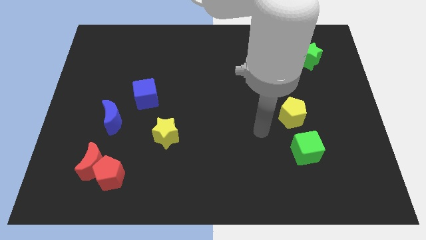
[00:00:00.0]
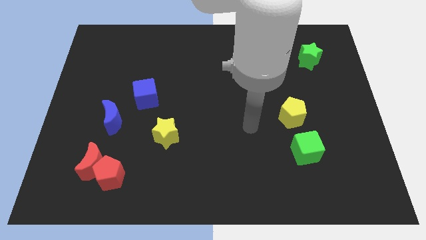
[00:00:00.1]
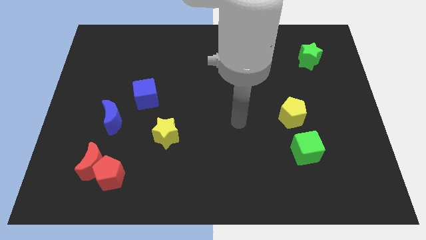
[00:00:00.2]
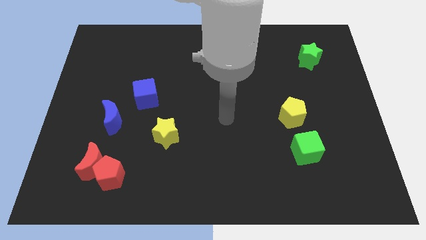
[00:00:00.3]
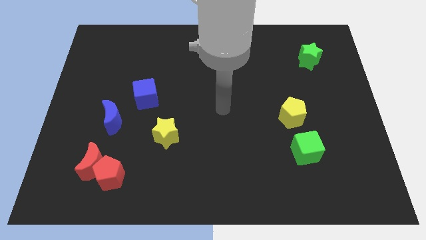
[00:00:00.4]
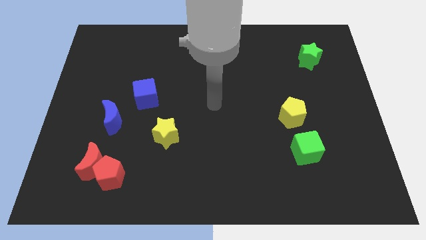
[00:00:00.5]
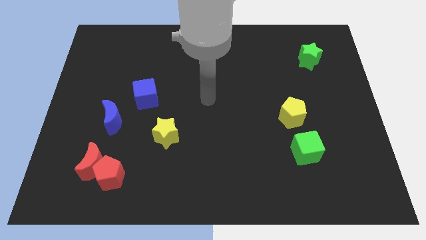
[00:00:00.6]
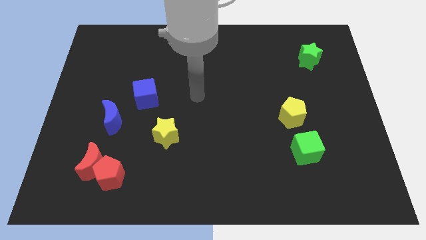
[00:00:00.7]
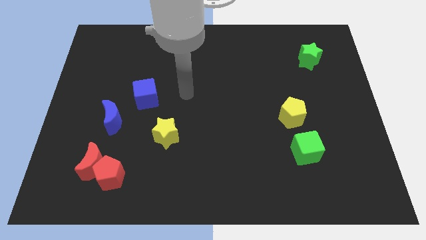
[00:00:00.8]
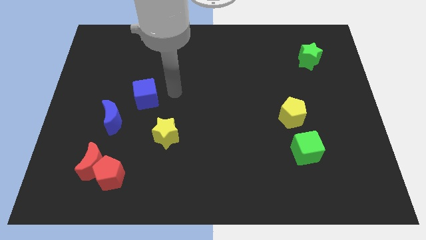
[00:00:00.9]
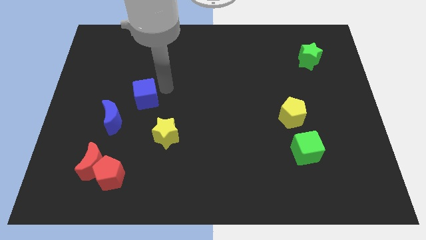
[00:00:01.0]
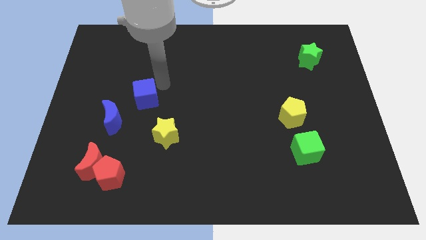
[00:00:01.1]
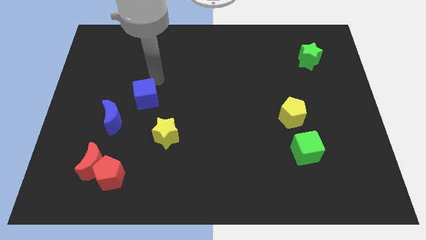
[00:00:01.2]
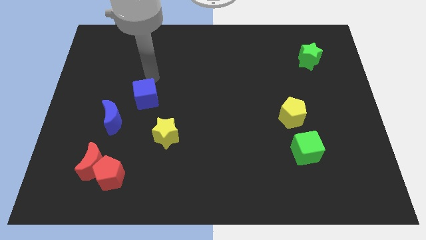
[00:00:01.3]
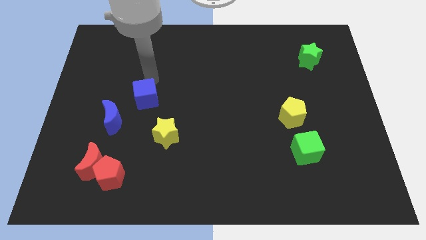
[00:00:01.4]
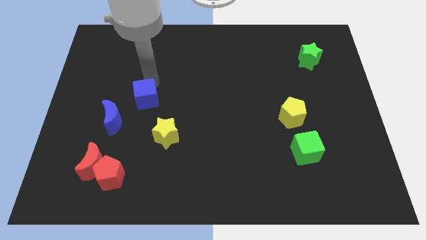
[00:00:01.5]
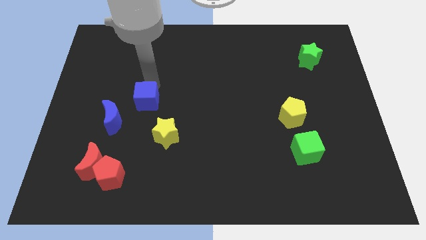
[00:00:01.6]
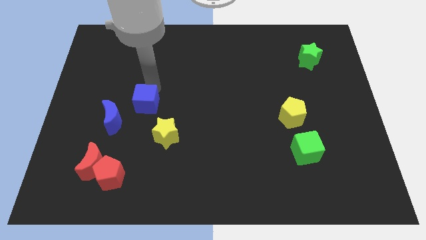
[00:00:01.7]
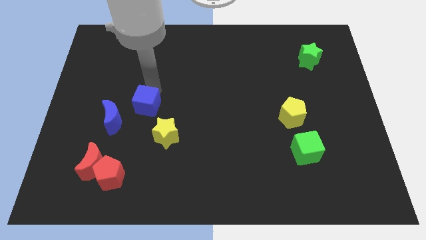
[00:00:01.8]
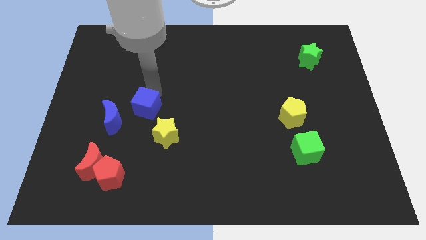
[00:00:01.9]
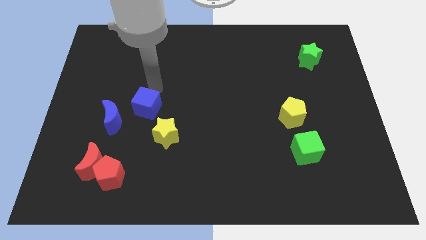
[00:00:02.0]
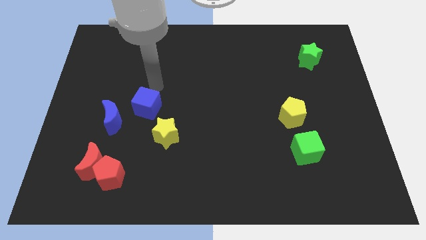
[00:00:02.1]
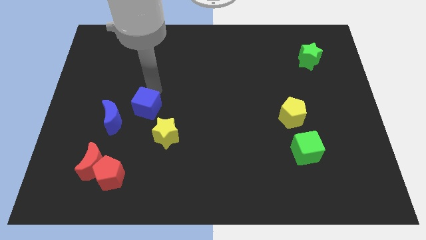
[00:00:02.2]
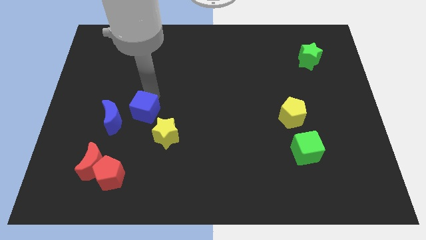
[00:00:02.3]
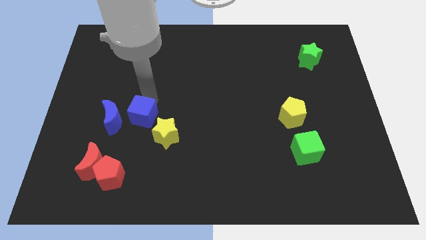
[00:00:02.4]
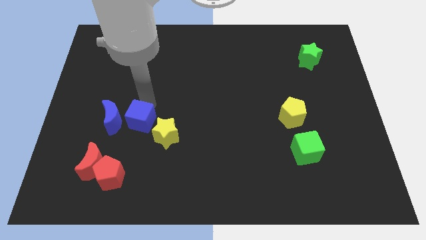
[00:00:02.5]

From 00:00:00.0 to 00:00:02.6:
move the blue cube down a bit

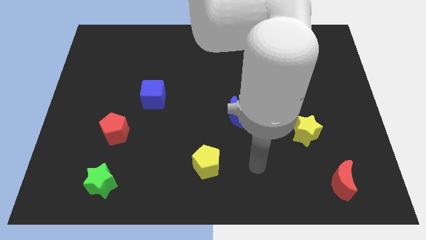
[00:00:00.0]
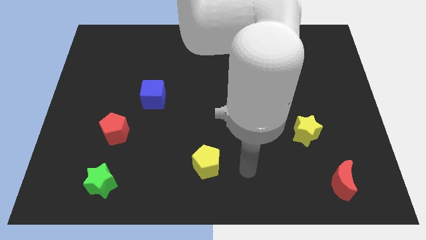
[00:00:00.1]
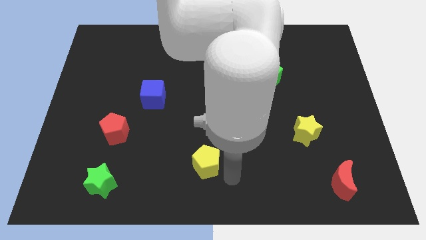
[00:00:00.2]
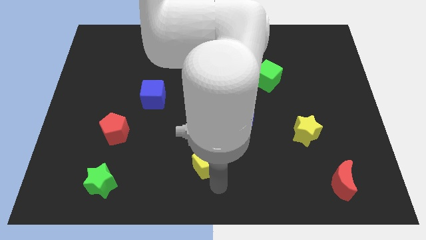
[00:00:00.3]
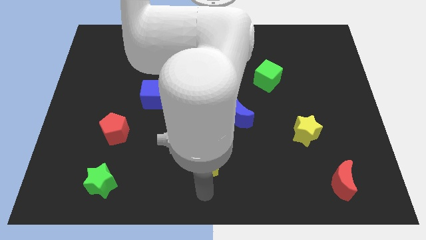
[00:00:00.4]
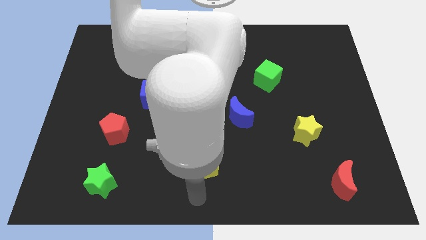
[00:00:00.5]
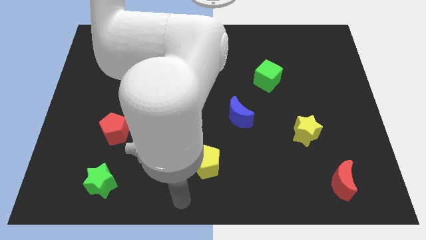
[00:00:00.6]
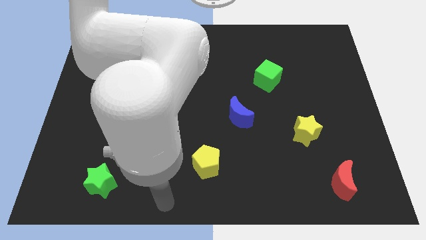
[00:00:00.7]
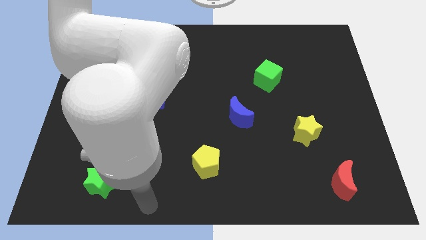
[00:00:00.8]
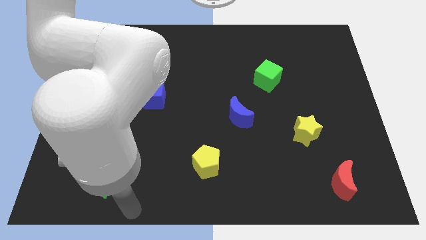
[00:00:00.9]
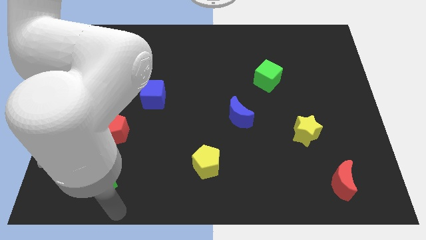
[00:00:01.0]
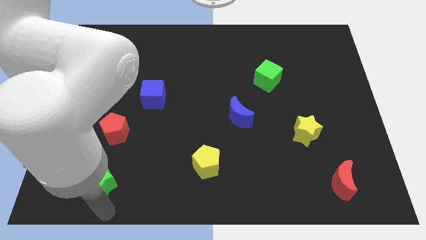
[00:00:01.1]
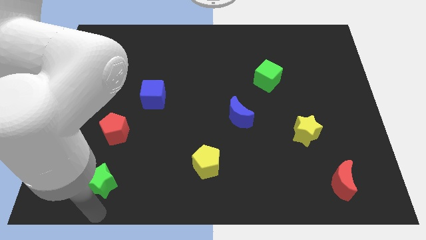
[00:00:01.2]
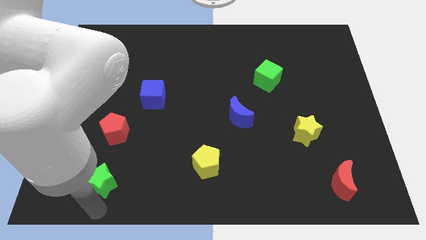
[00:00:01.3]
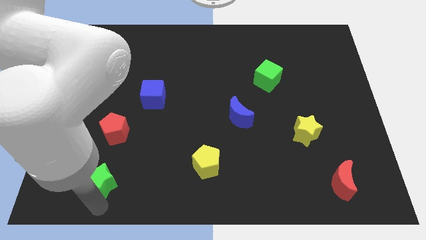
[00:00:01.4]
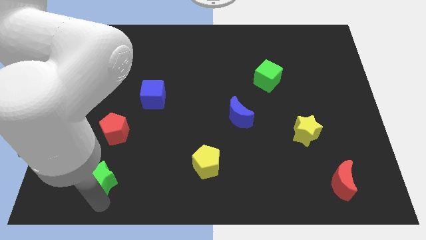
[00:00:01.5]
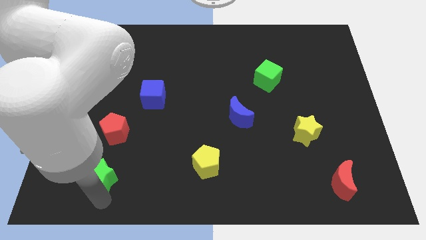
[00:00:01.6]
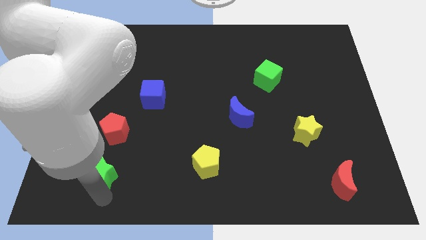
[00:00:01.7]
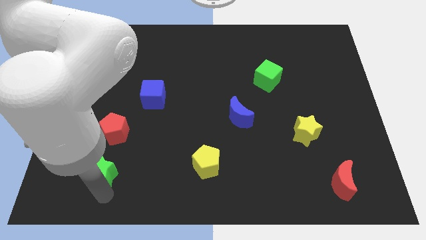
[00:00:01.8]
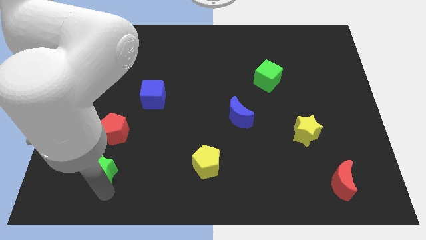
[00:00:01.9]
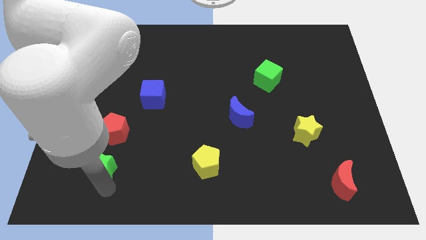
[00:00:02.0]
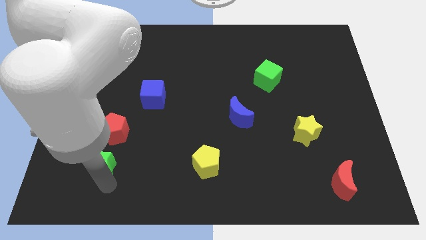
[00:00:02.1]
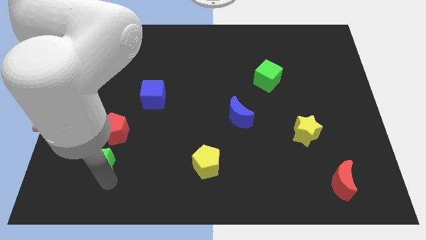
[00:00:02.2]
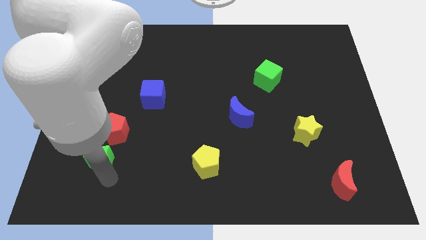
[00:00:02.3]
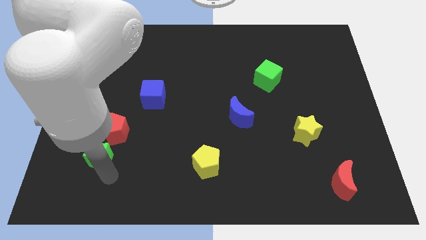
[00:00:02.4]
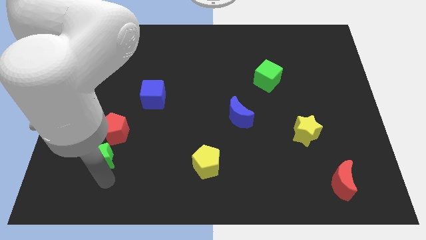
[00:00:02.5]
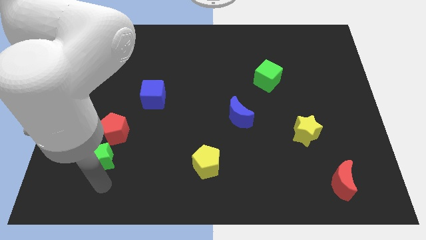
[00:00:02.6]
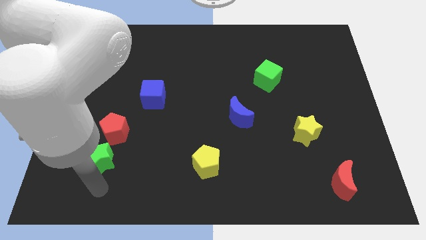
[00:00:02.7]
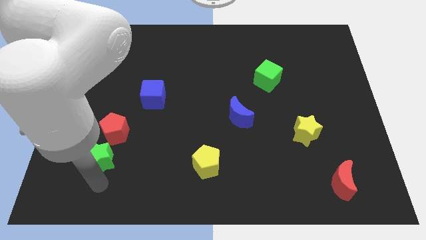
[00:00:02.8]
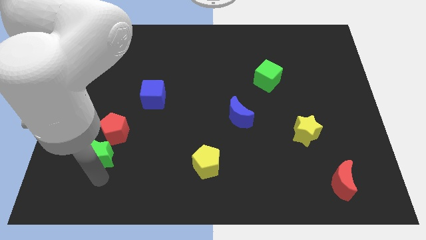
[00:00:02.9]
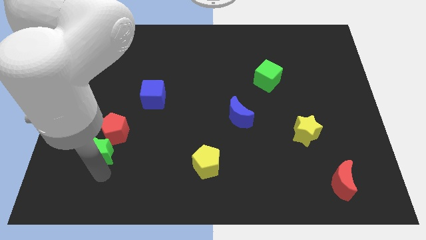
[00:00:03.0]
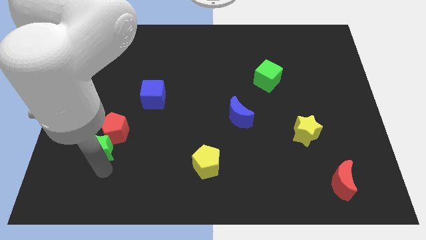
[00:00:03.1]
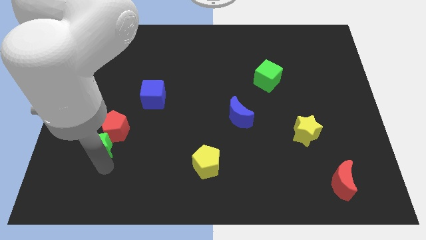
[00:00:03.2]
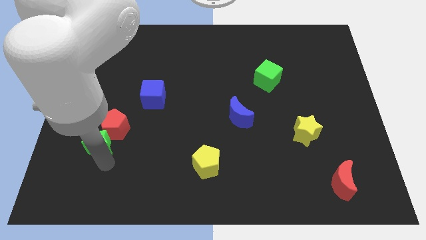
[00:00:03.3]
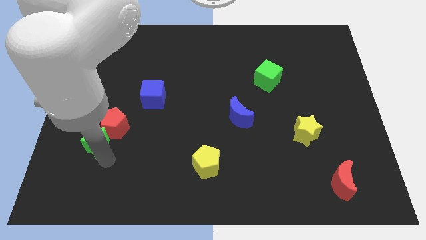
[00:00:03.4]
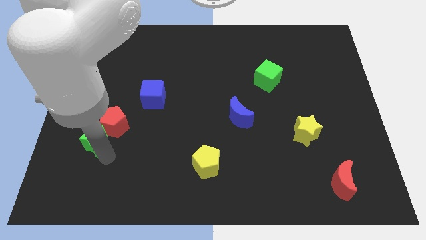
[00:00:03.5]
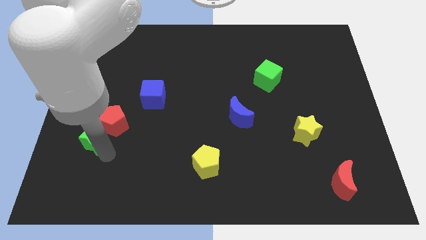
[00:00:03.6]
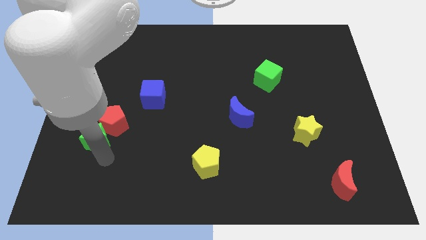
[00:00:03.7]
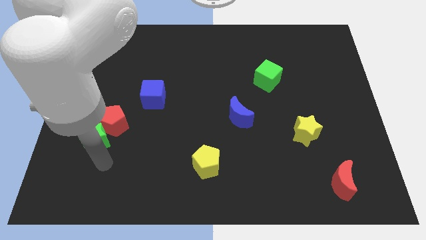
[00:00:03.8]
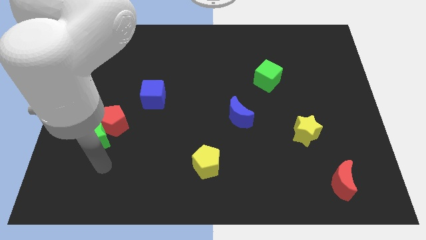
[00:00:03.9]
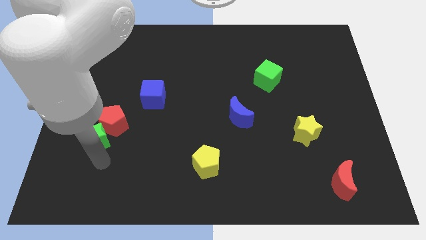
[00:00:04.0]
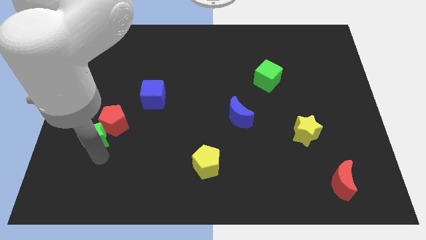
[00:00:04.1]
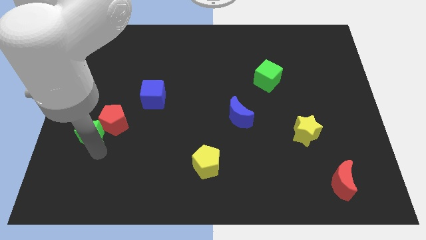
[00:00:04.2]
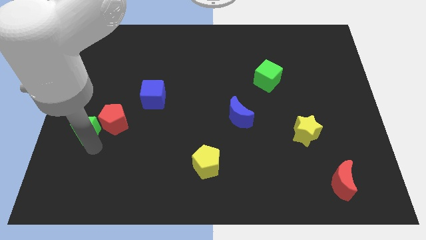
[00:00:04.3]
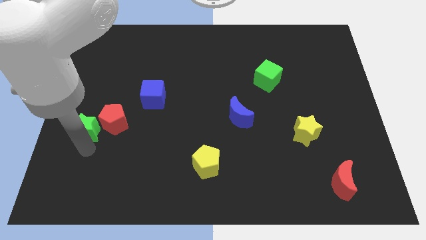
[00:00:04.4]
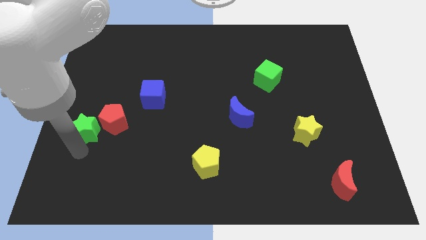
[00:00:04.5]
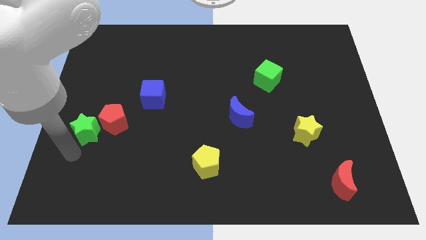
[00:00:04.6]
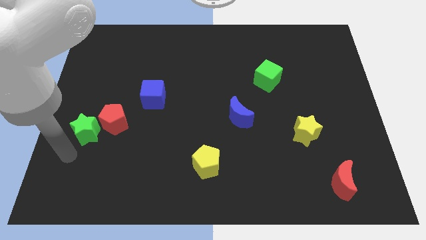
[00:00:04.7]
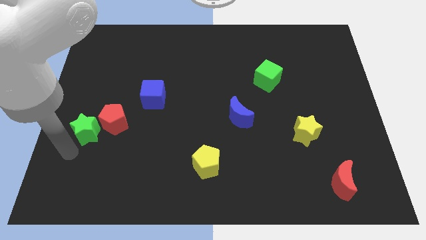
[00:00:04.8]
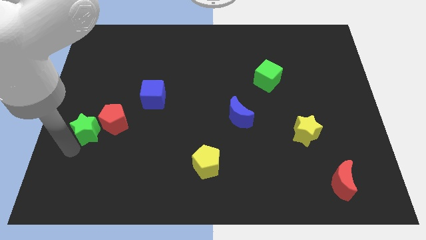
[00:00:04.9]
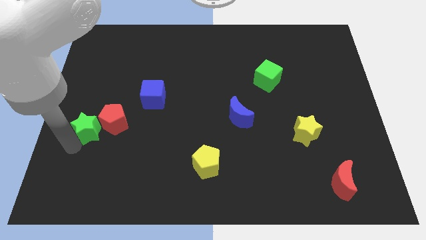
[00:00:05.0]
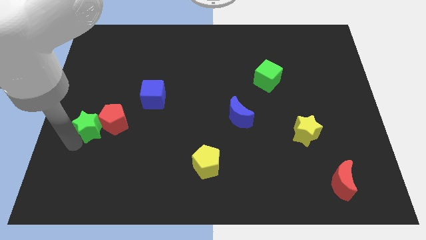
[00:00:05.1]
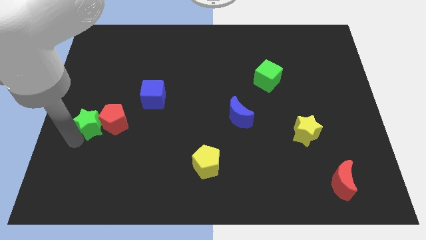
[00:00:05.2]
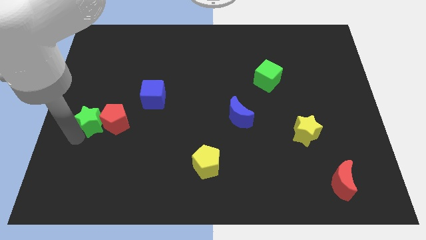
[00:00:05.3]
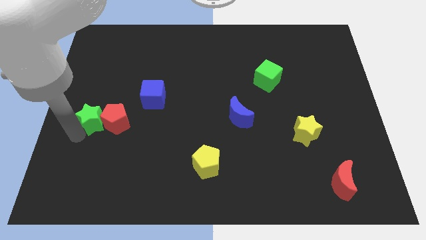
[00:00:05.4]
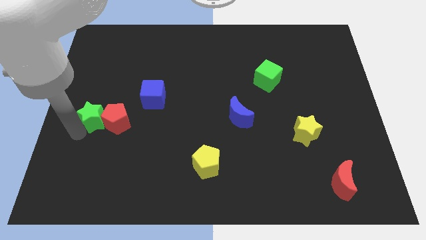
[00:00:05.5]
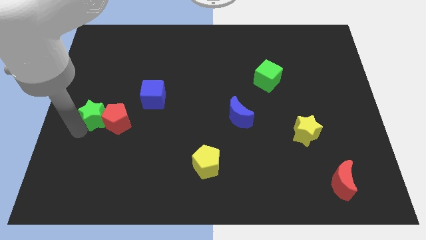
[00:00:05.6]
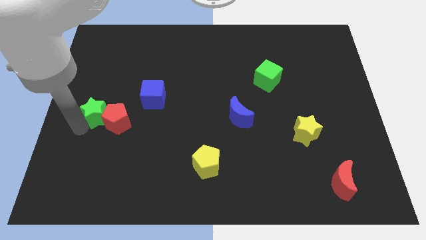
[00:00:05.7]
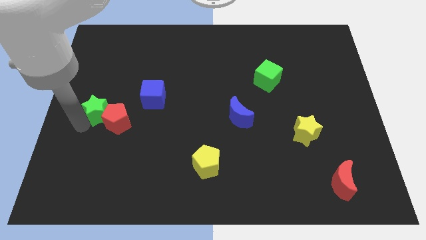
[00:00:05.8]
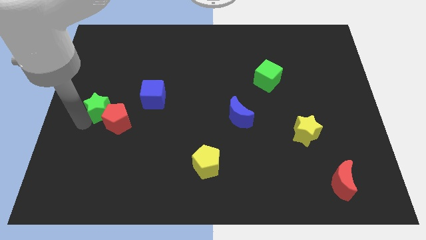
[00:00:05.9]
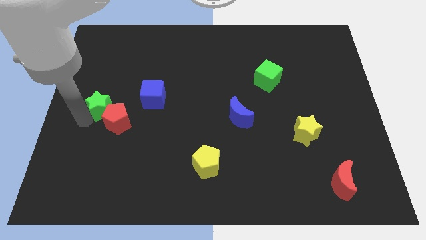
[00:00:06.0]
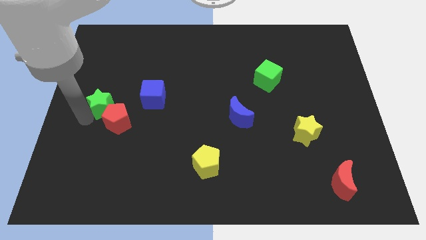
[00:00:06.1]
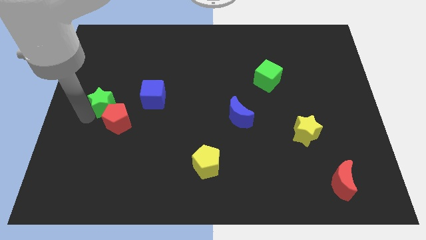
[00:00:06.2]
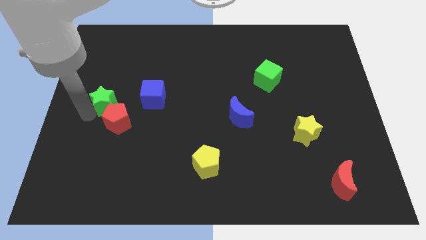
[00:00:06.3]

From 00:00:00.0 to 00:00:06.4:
move the green star up
